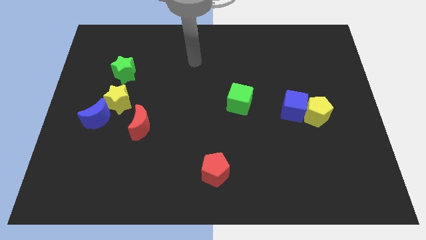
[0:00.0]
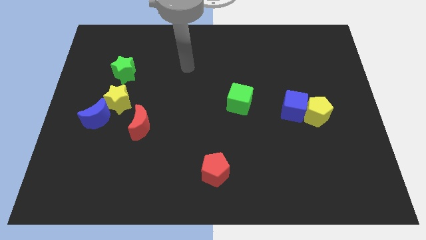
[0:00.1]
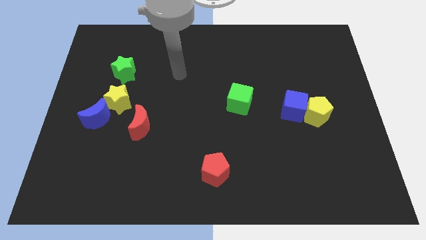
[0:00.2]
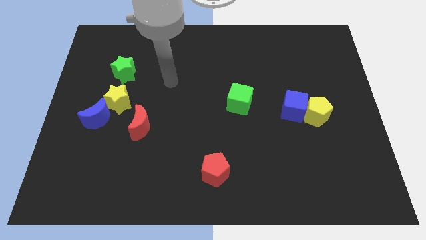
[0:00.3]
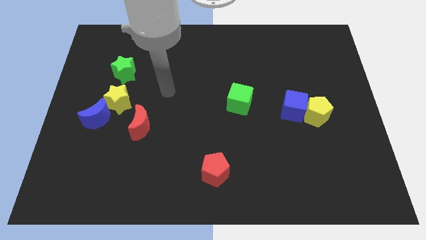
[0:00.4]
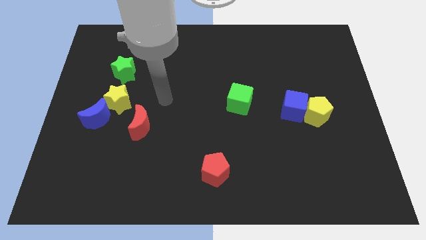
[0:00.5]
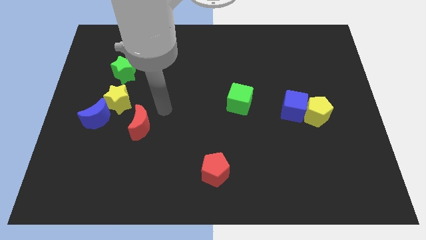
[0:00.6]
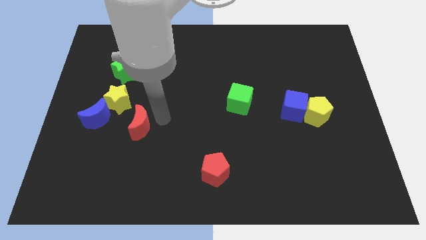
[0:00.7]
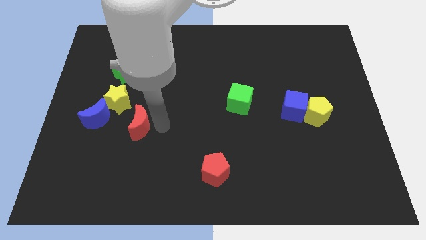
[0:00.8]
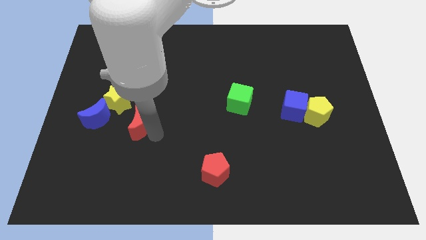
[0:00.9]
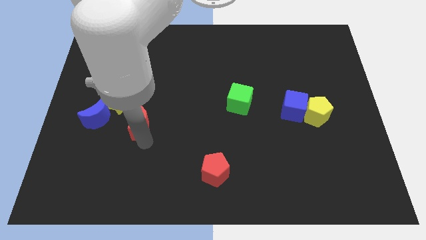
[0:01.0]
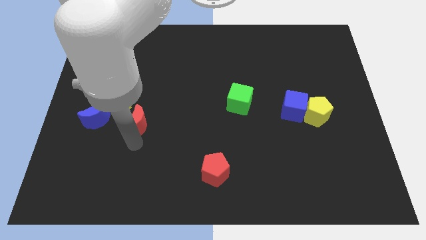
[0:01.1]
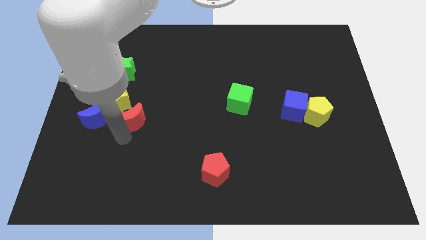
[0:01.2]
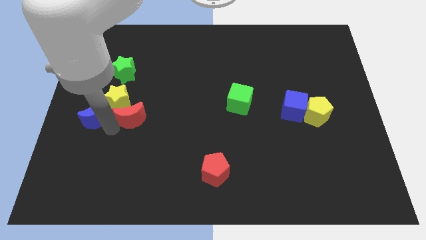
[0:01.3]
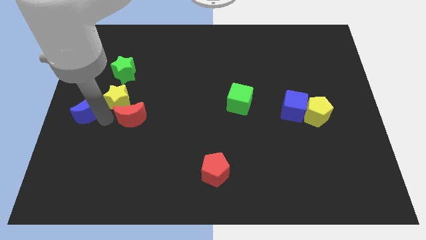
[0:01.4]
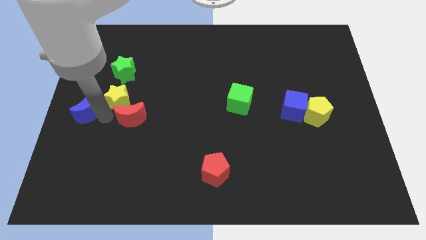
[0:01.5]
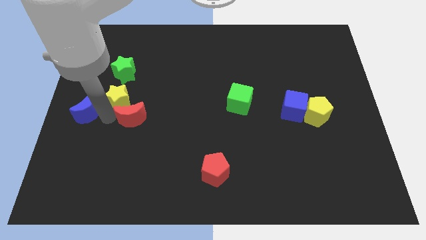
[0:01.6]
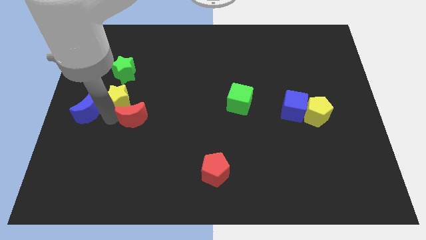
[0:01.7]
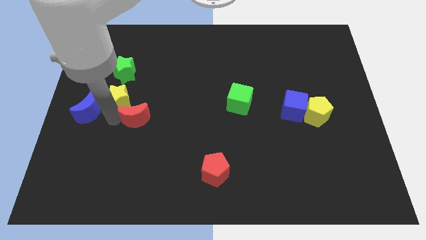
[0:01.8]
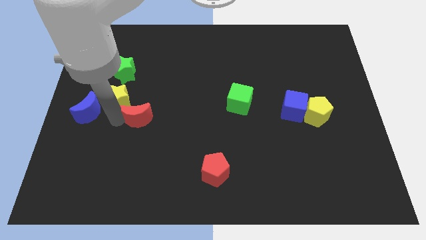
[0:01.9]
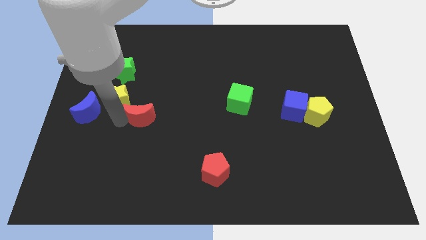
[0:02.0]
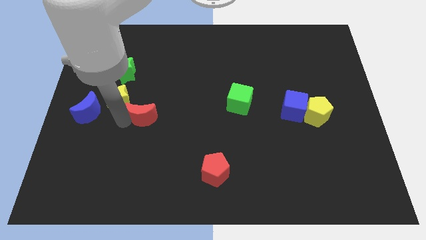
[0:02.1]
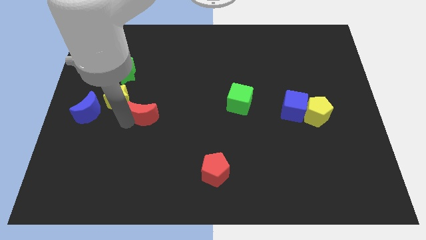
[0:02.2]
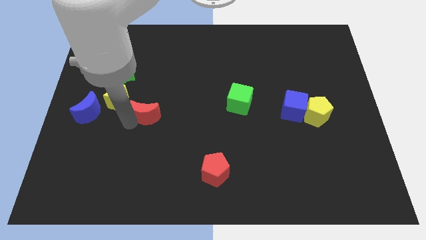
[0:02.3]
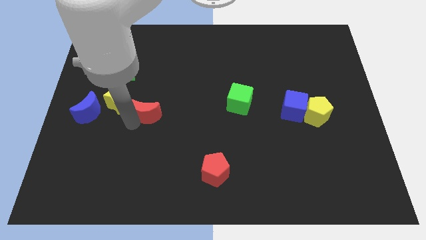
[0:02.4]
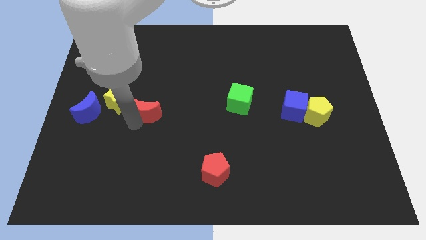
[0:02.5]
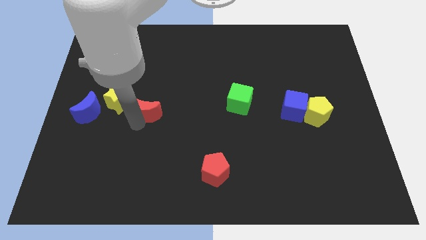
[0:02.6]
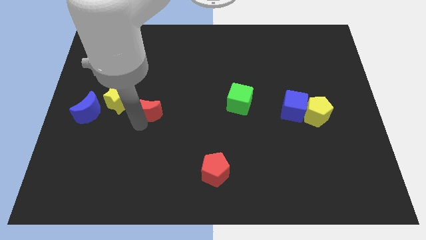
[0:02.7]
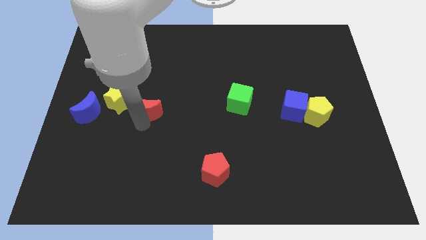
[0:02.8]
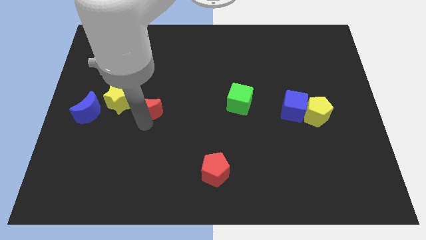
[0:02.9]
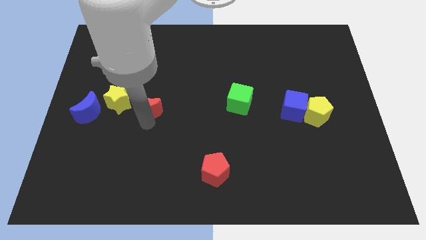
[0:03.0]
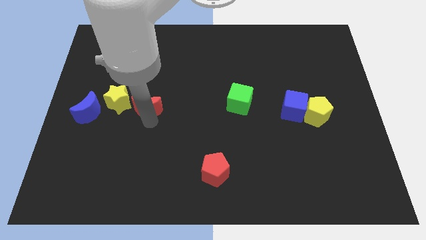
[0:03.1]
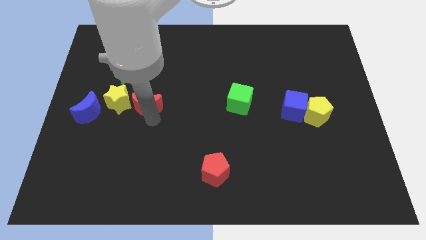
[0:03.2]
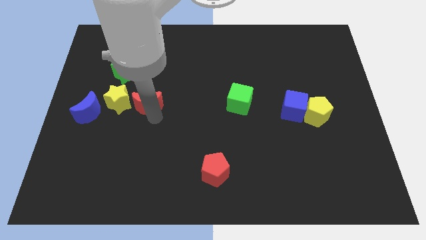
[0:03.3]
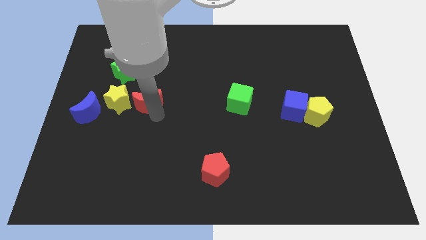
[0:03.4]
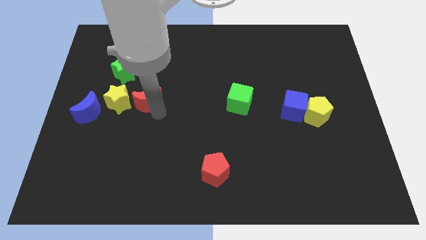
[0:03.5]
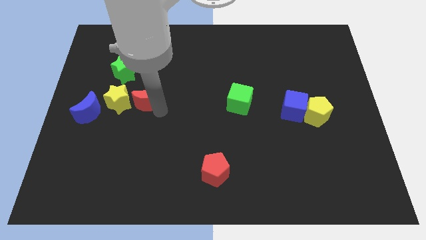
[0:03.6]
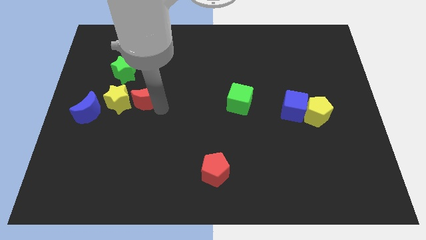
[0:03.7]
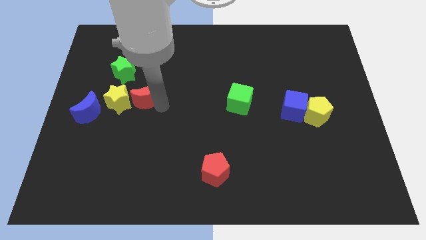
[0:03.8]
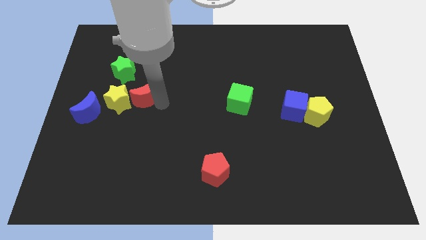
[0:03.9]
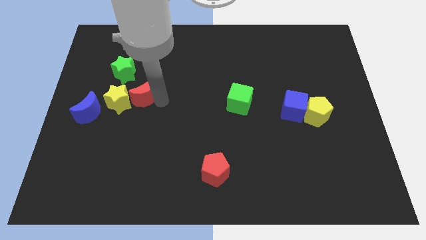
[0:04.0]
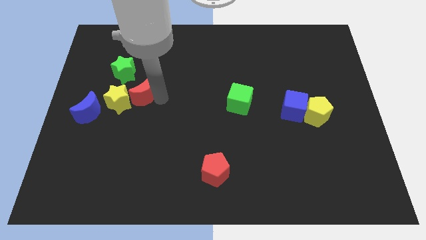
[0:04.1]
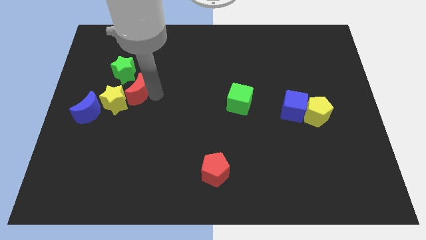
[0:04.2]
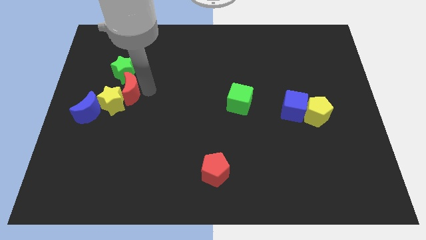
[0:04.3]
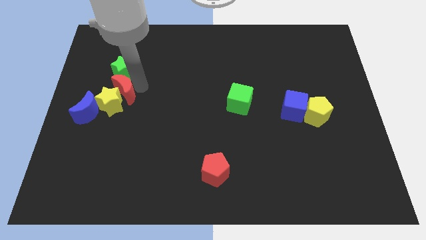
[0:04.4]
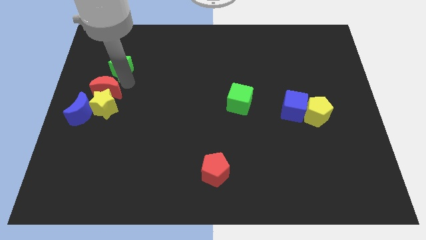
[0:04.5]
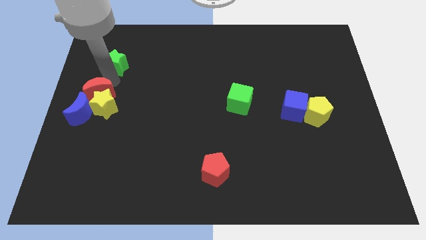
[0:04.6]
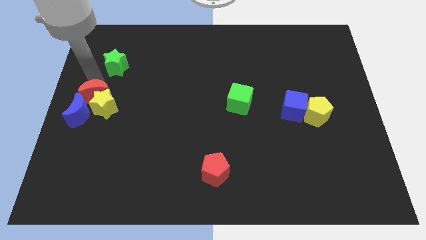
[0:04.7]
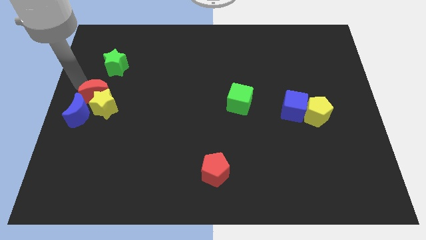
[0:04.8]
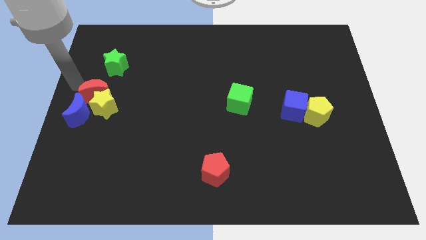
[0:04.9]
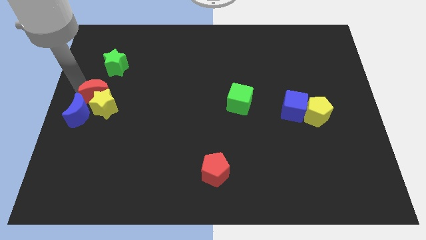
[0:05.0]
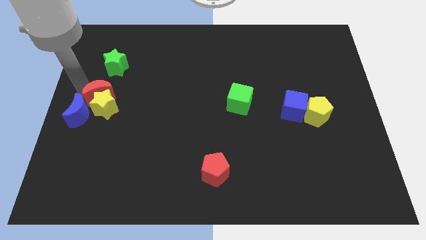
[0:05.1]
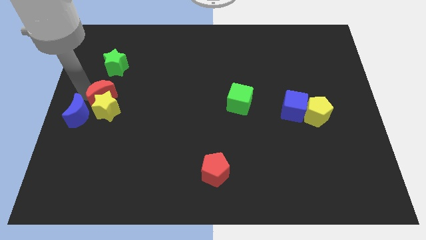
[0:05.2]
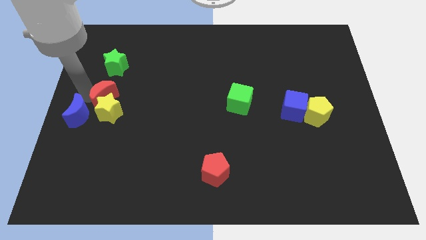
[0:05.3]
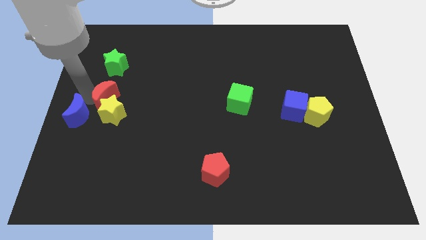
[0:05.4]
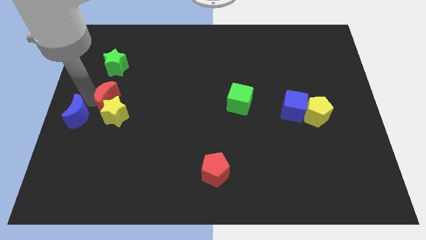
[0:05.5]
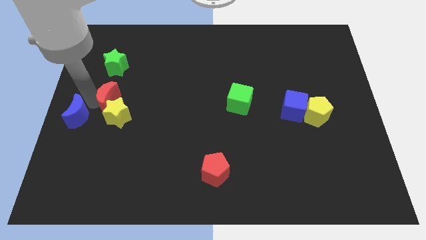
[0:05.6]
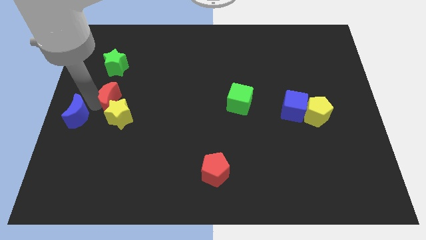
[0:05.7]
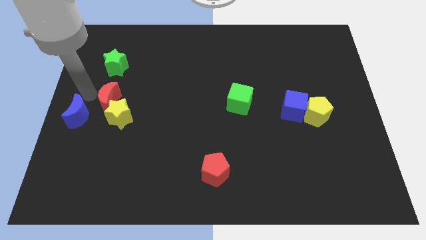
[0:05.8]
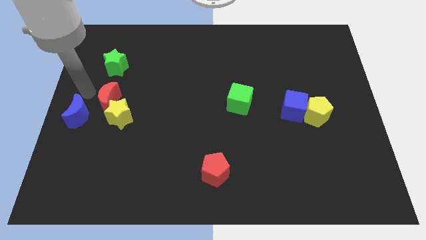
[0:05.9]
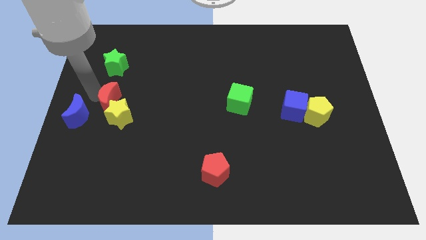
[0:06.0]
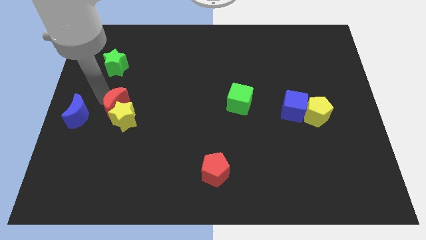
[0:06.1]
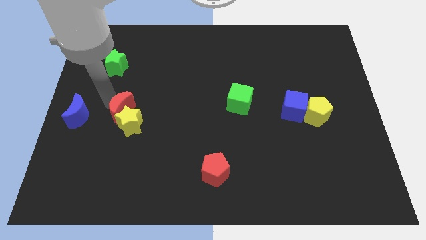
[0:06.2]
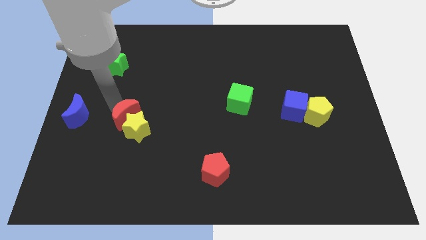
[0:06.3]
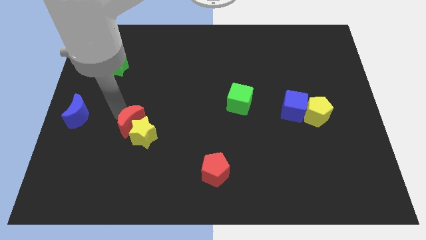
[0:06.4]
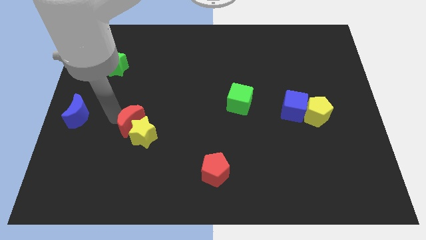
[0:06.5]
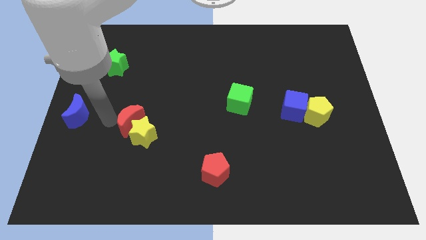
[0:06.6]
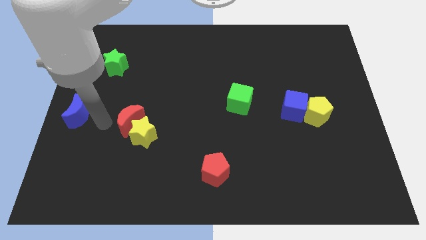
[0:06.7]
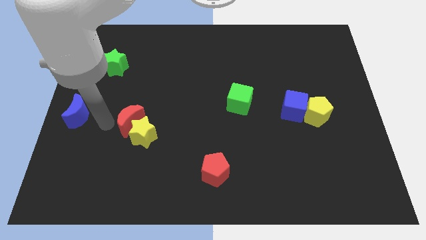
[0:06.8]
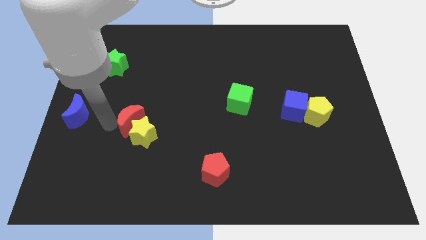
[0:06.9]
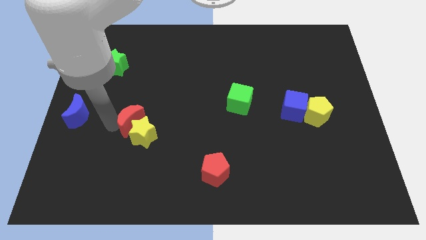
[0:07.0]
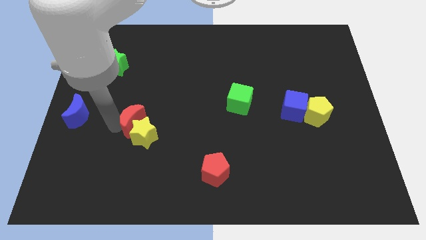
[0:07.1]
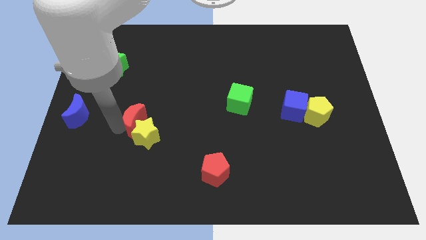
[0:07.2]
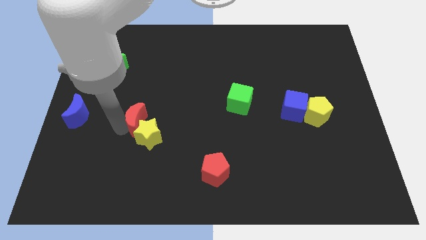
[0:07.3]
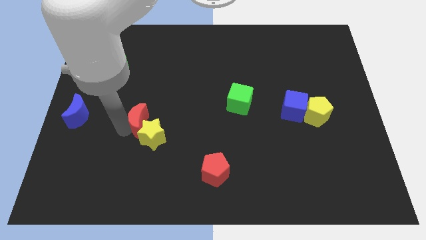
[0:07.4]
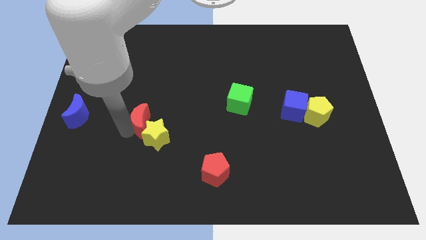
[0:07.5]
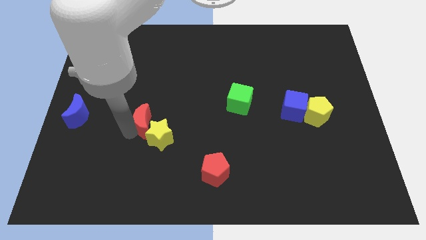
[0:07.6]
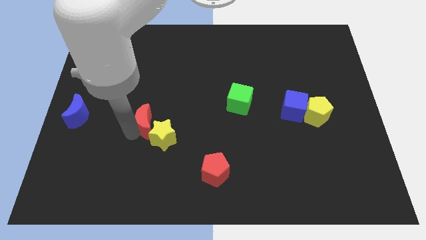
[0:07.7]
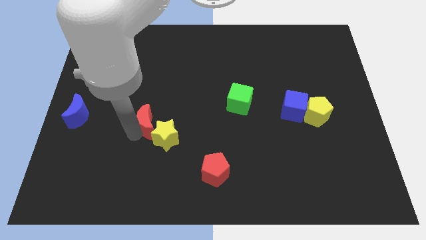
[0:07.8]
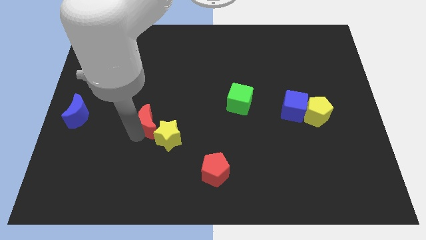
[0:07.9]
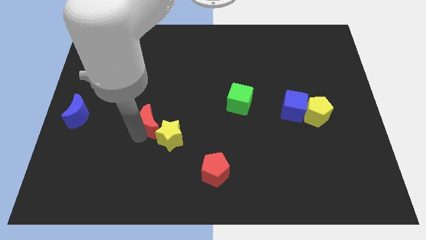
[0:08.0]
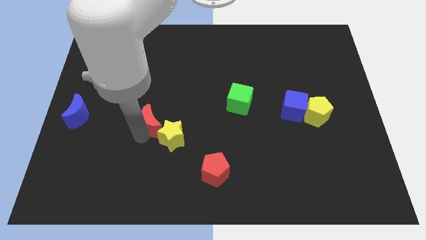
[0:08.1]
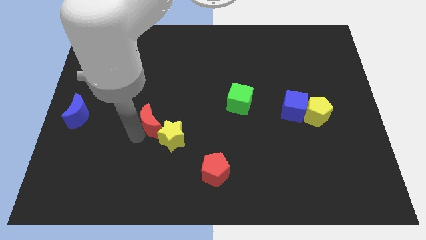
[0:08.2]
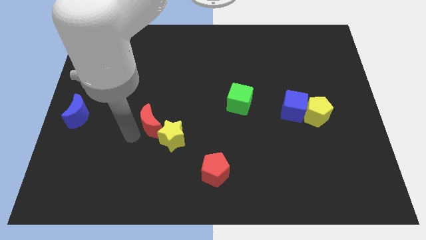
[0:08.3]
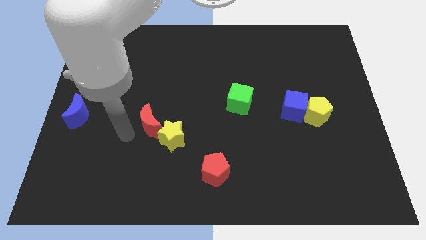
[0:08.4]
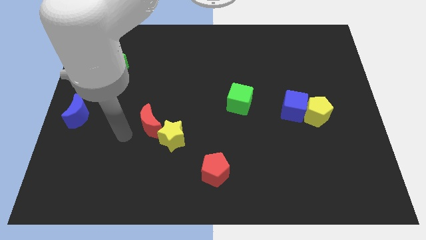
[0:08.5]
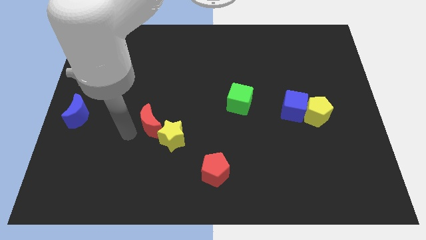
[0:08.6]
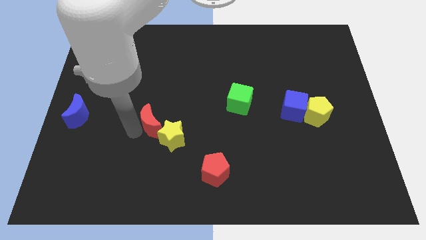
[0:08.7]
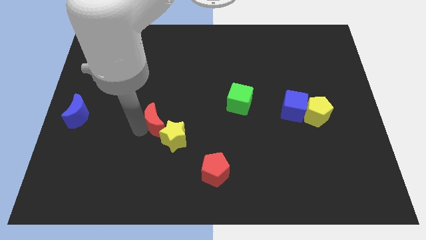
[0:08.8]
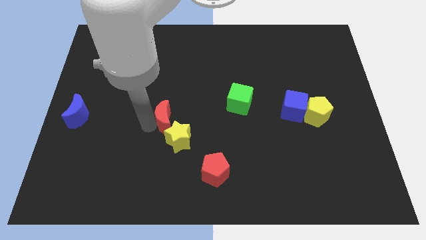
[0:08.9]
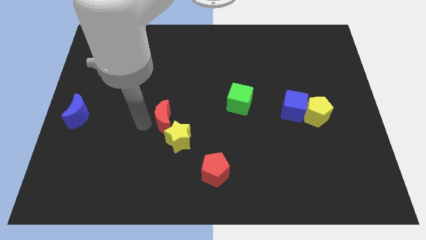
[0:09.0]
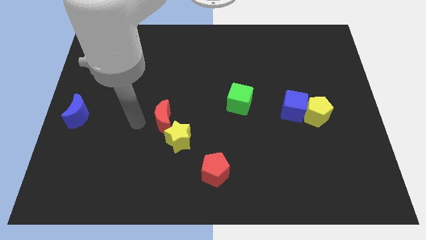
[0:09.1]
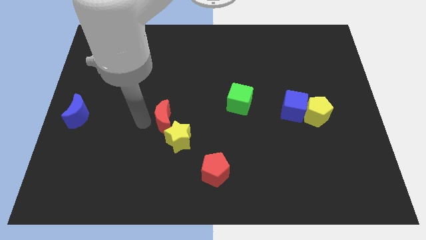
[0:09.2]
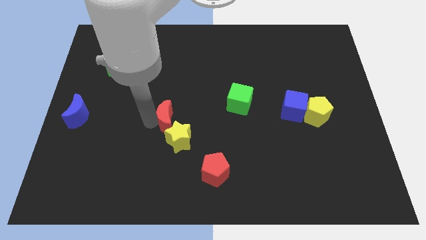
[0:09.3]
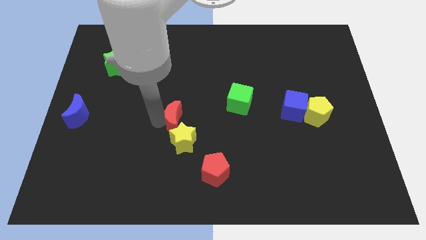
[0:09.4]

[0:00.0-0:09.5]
slide the red moon to the right a little bit
